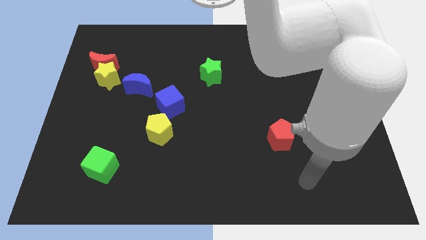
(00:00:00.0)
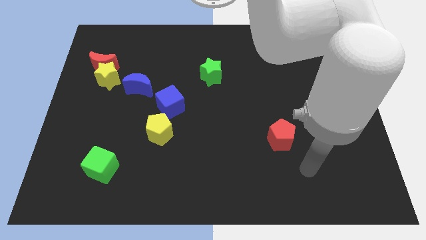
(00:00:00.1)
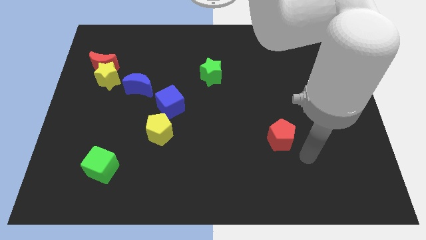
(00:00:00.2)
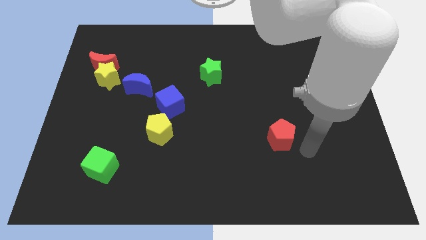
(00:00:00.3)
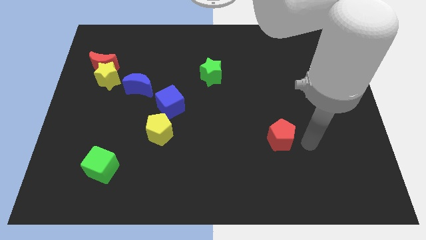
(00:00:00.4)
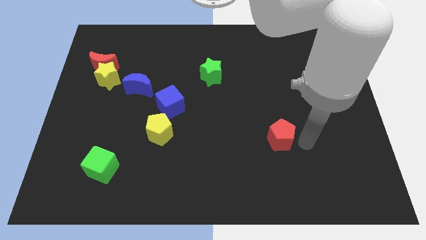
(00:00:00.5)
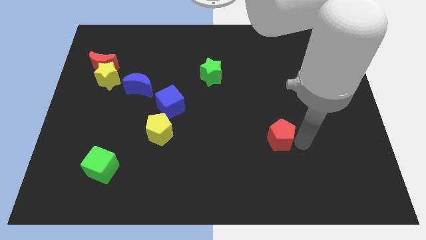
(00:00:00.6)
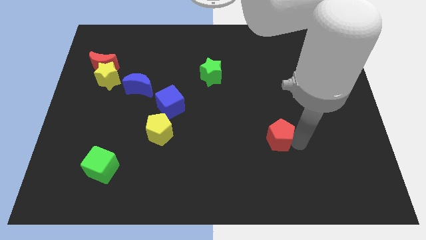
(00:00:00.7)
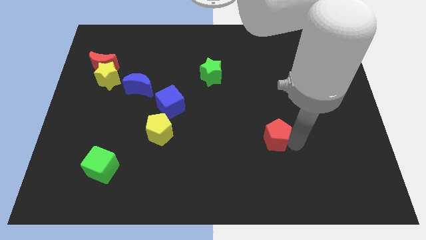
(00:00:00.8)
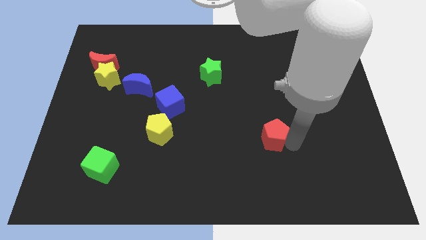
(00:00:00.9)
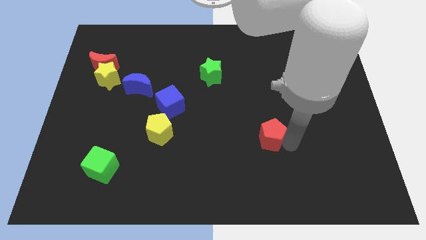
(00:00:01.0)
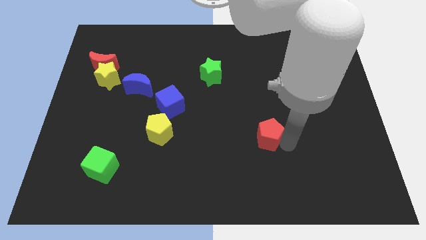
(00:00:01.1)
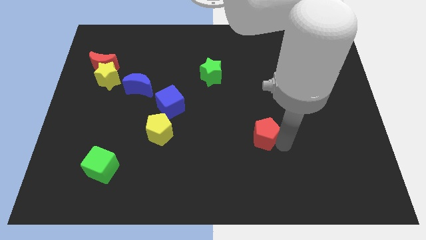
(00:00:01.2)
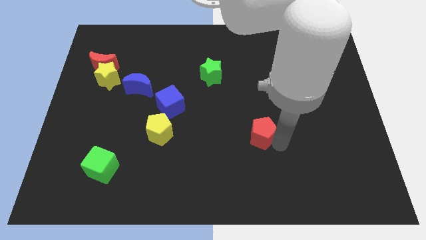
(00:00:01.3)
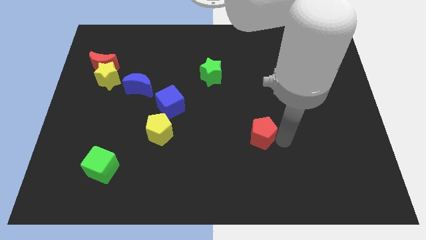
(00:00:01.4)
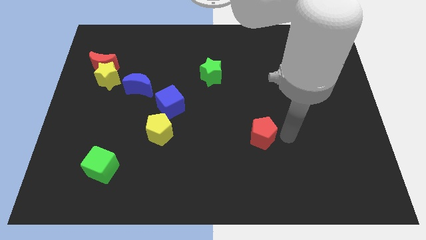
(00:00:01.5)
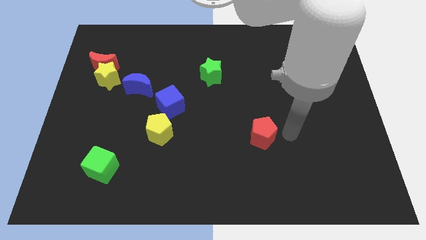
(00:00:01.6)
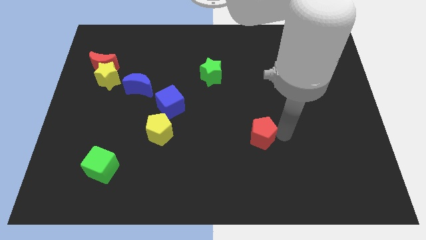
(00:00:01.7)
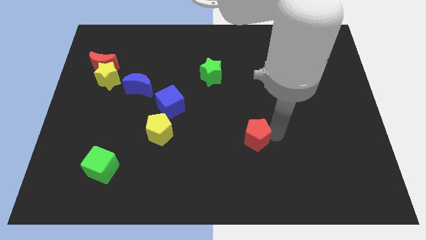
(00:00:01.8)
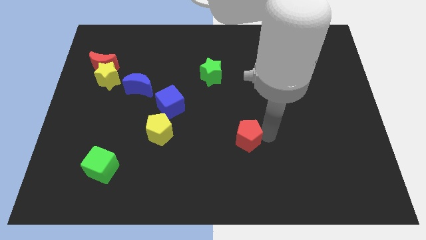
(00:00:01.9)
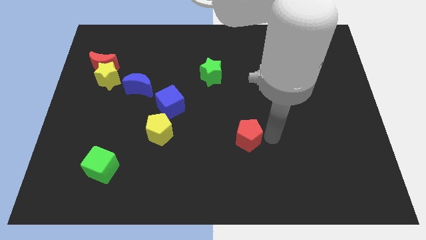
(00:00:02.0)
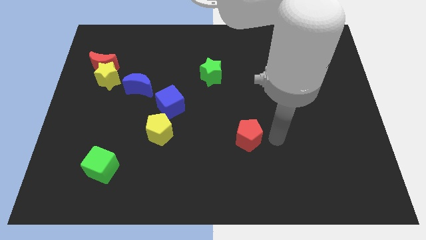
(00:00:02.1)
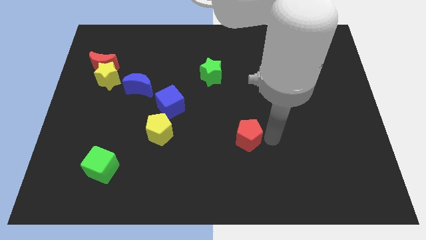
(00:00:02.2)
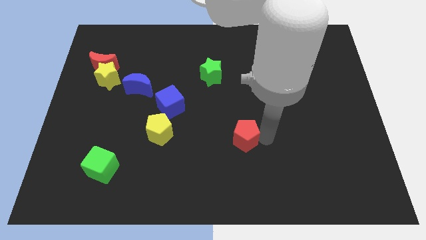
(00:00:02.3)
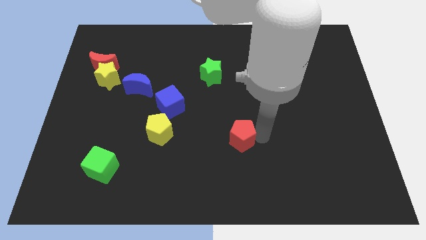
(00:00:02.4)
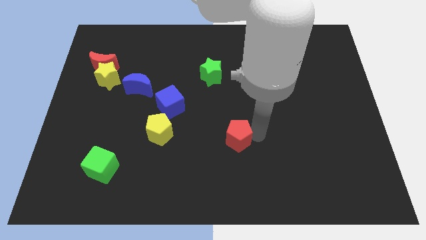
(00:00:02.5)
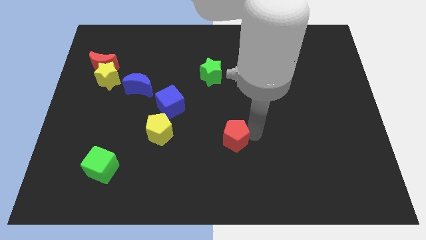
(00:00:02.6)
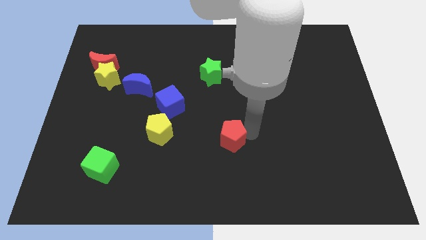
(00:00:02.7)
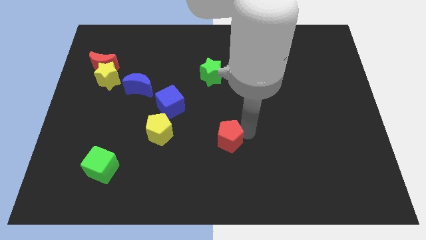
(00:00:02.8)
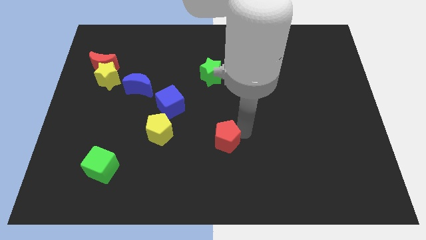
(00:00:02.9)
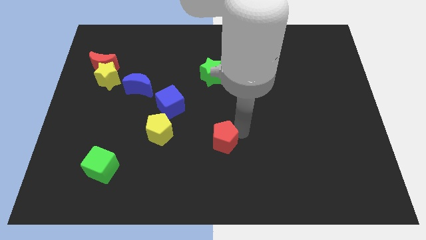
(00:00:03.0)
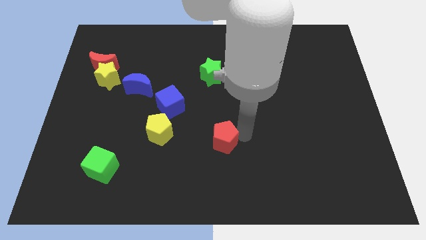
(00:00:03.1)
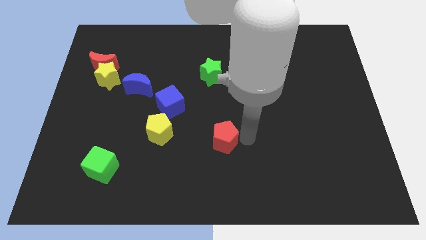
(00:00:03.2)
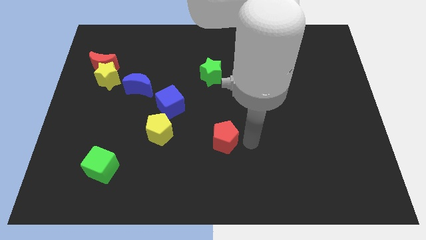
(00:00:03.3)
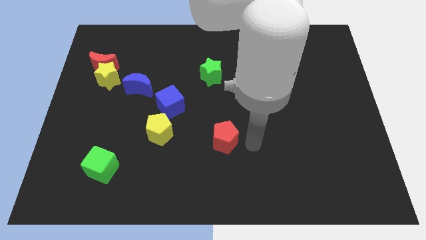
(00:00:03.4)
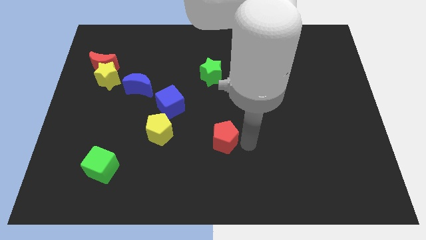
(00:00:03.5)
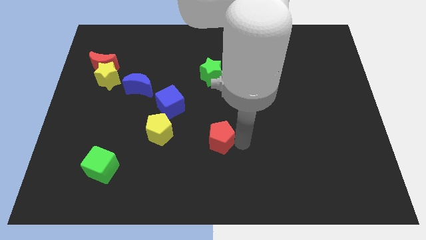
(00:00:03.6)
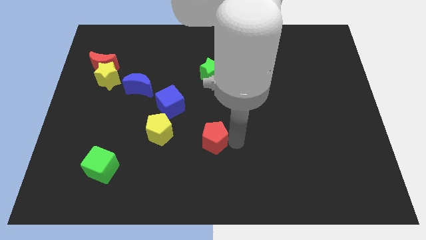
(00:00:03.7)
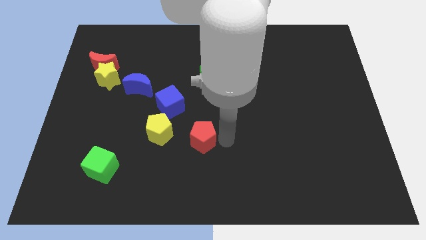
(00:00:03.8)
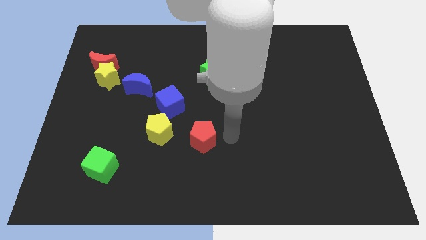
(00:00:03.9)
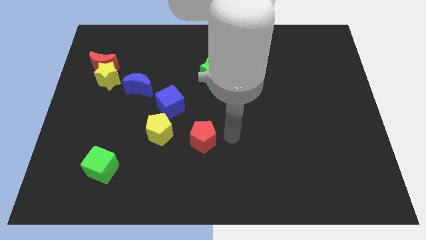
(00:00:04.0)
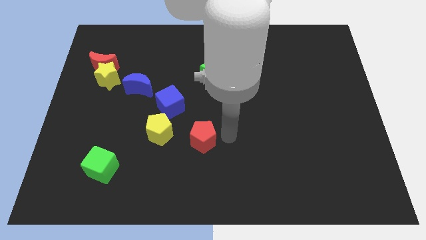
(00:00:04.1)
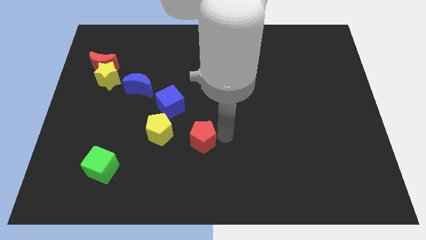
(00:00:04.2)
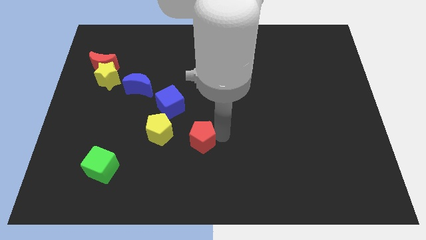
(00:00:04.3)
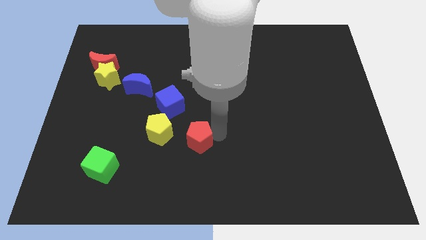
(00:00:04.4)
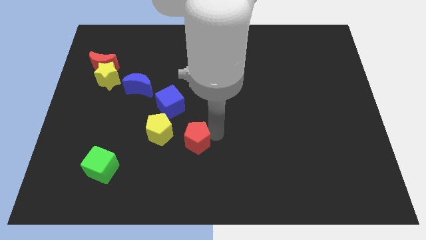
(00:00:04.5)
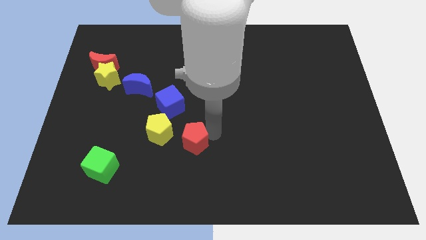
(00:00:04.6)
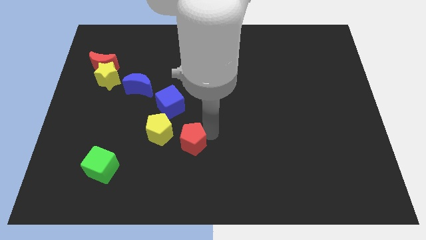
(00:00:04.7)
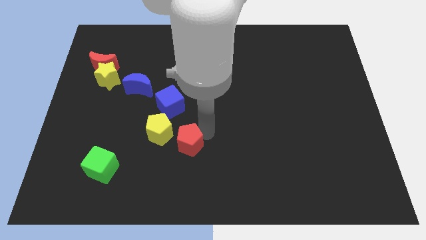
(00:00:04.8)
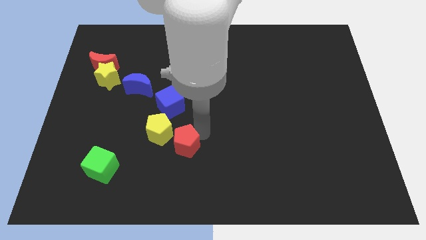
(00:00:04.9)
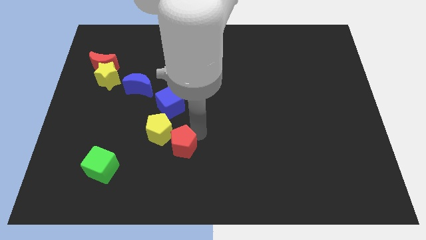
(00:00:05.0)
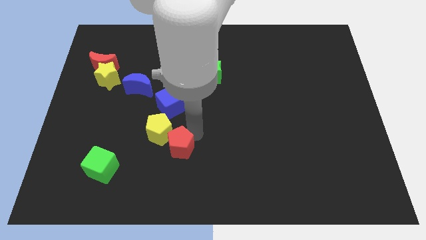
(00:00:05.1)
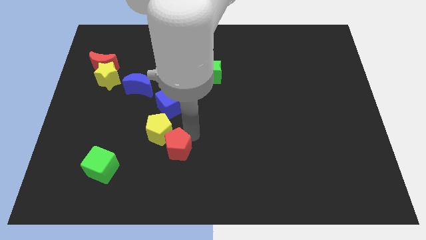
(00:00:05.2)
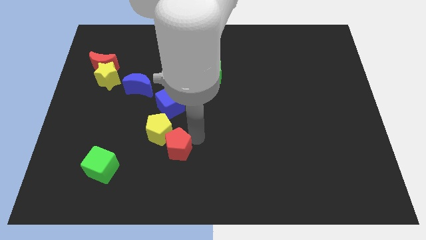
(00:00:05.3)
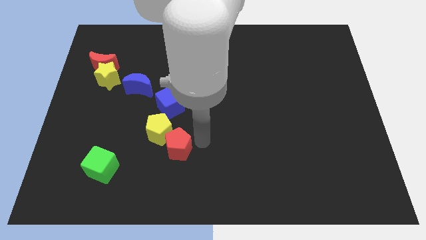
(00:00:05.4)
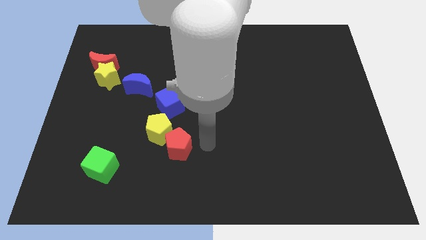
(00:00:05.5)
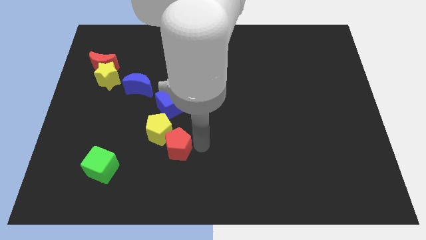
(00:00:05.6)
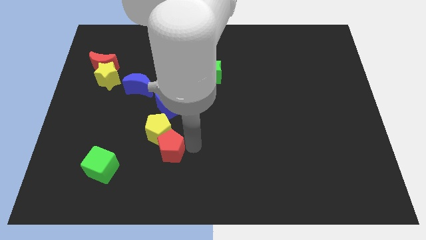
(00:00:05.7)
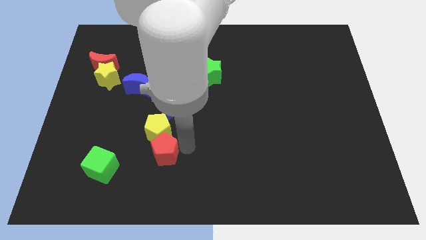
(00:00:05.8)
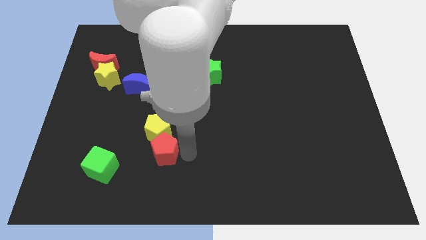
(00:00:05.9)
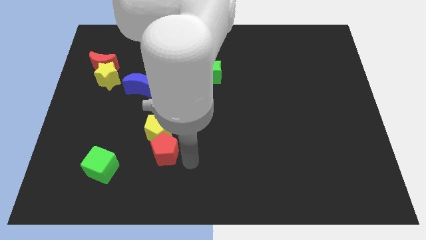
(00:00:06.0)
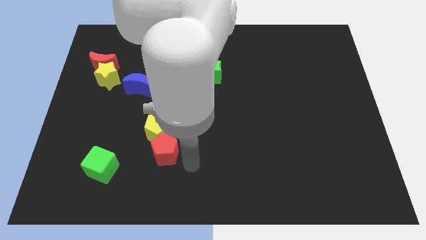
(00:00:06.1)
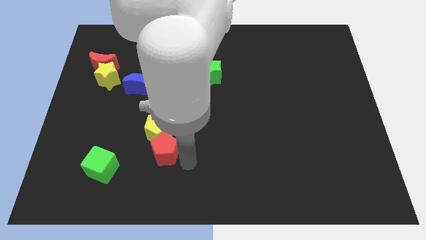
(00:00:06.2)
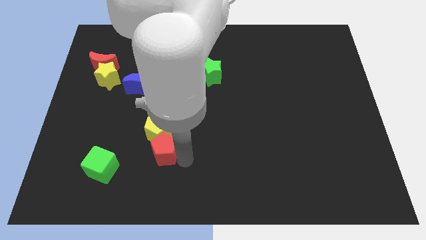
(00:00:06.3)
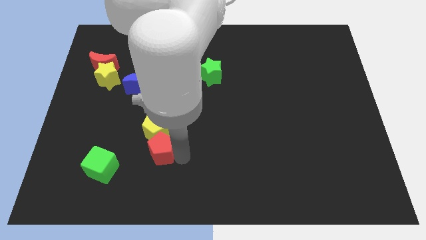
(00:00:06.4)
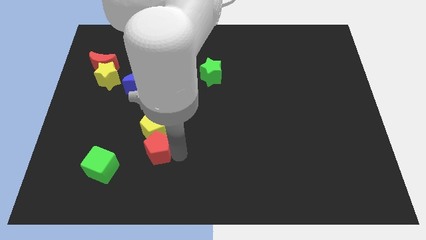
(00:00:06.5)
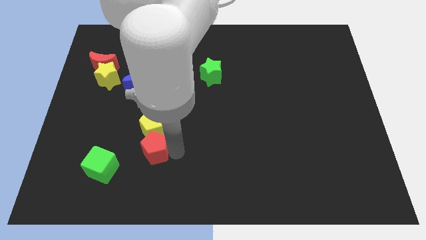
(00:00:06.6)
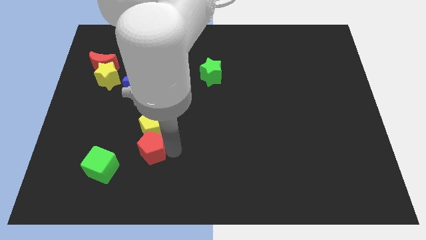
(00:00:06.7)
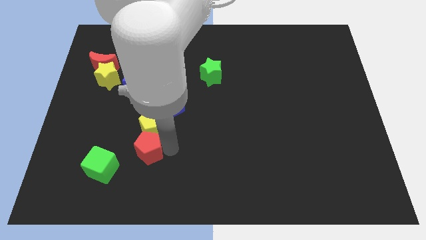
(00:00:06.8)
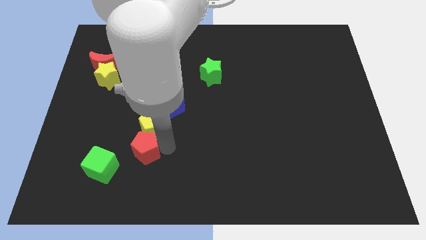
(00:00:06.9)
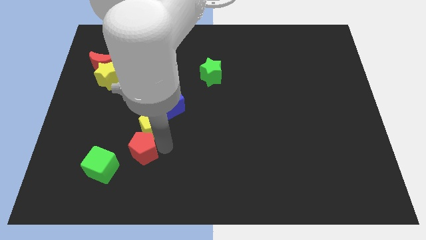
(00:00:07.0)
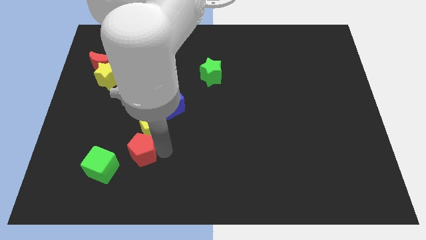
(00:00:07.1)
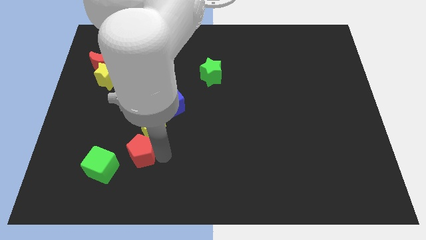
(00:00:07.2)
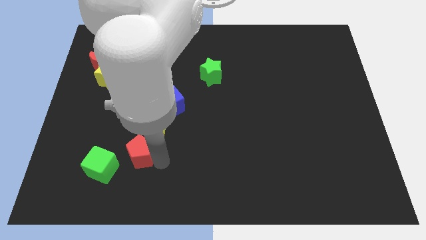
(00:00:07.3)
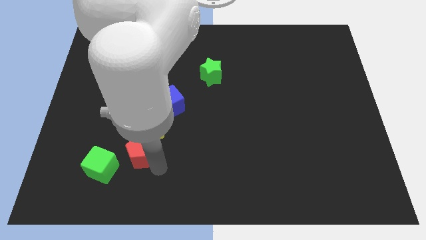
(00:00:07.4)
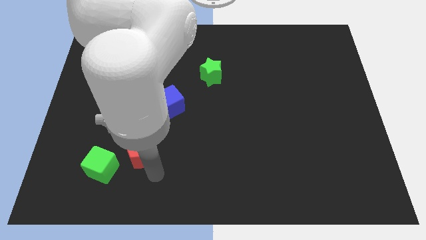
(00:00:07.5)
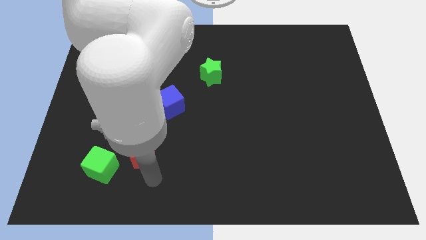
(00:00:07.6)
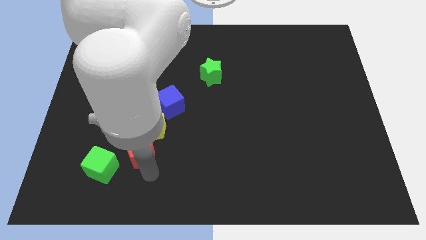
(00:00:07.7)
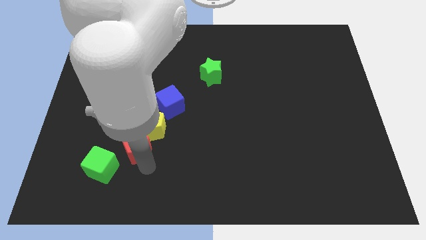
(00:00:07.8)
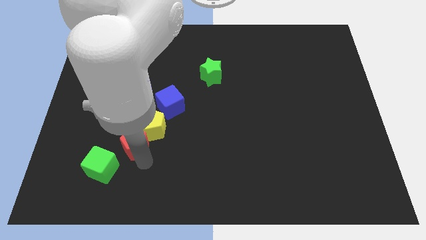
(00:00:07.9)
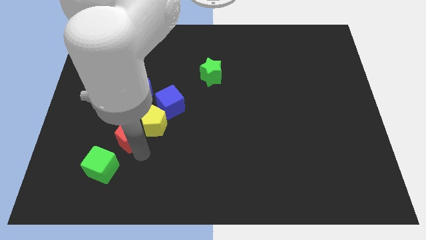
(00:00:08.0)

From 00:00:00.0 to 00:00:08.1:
slide the red pentagon to the top side of the green cube

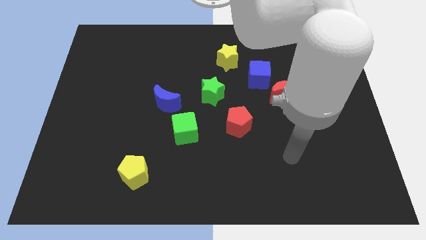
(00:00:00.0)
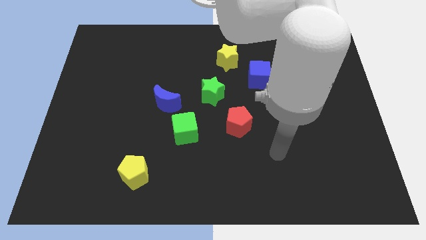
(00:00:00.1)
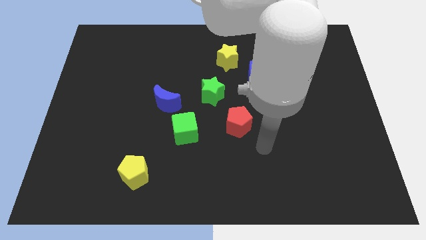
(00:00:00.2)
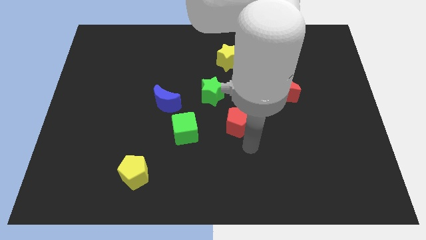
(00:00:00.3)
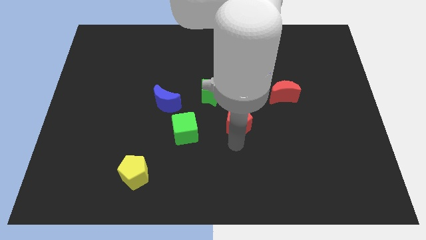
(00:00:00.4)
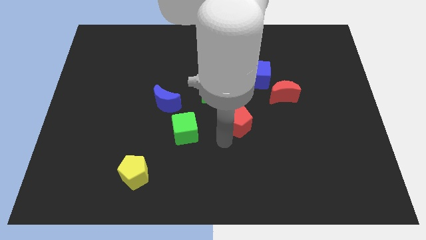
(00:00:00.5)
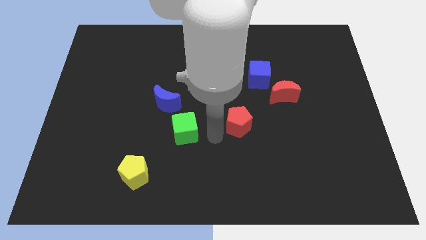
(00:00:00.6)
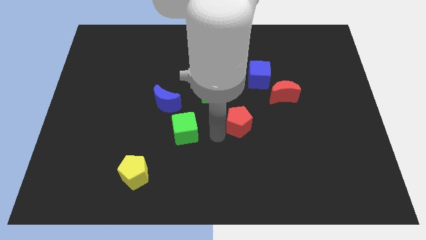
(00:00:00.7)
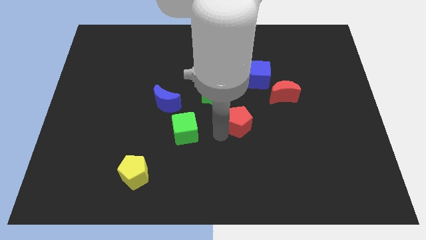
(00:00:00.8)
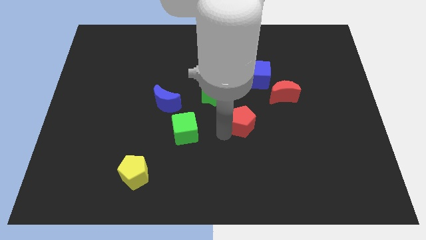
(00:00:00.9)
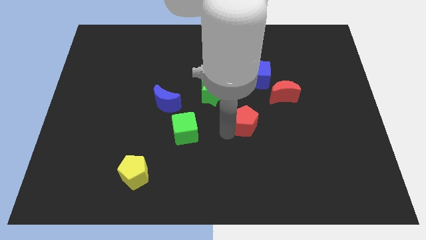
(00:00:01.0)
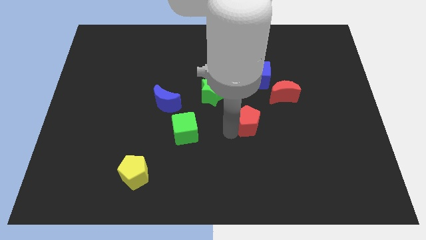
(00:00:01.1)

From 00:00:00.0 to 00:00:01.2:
move the red pentagon below the blue cube
